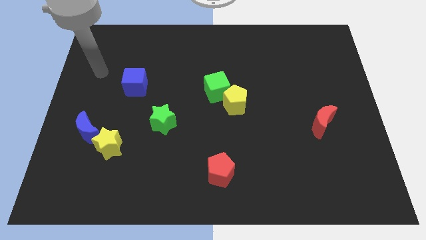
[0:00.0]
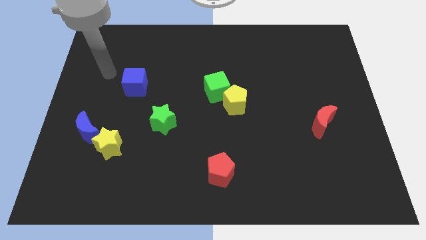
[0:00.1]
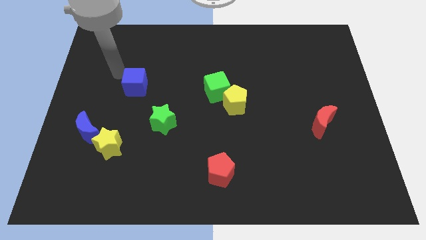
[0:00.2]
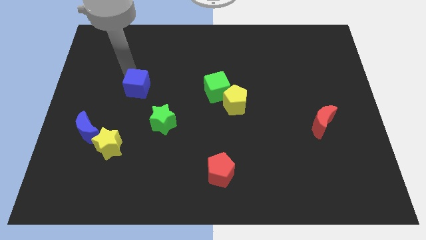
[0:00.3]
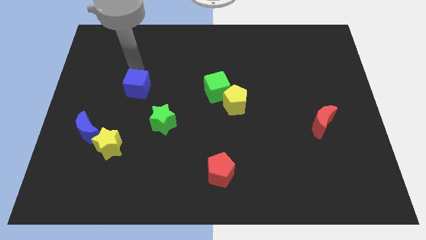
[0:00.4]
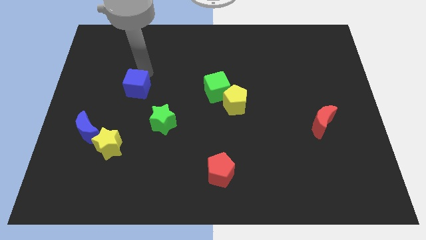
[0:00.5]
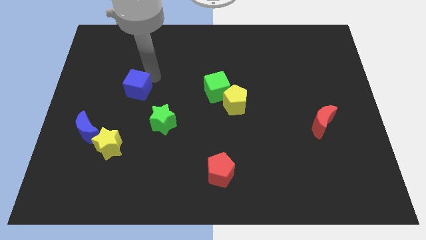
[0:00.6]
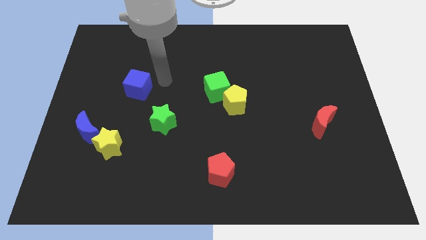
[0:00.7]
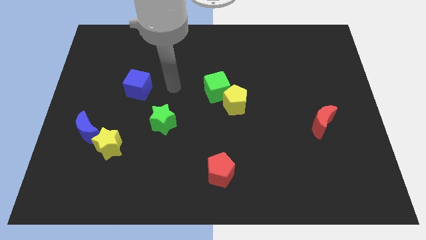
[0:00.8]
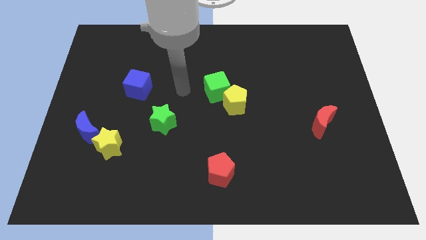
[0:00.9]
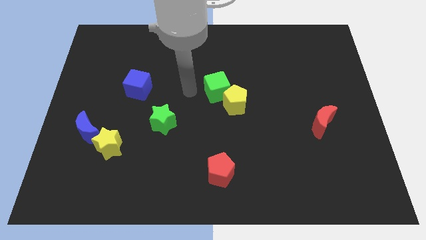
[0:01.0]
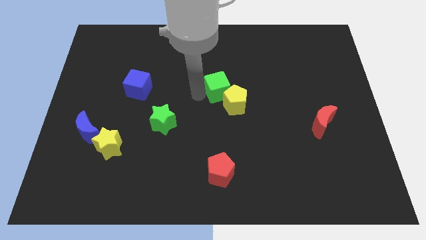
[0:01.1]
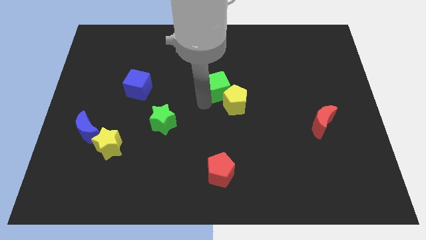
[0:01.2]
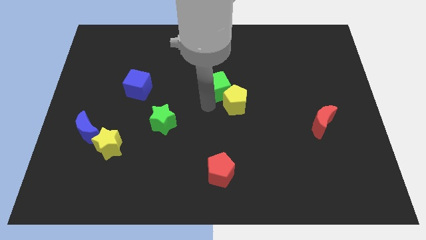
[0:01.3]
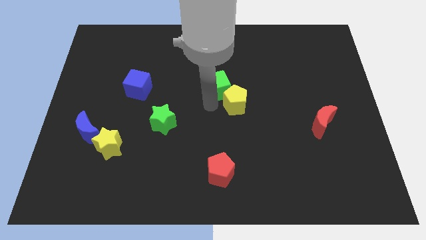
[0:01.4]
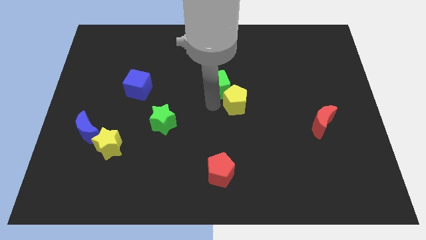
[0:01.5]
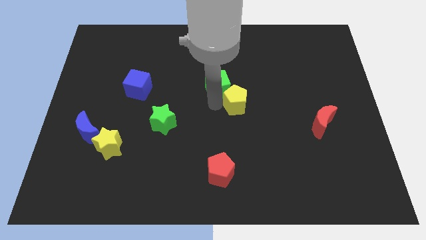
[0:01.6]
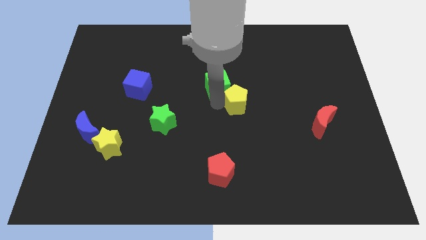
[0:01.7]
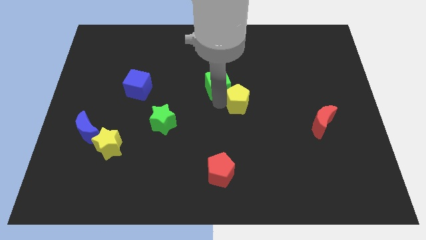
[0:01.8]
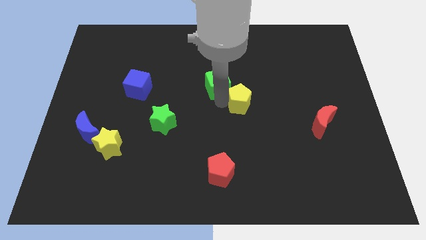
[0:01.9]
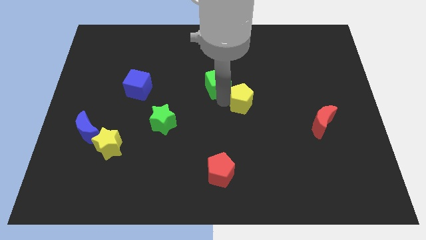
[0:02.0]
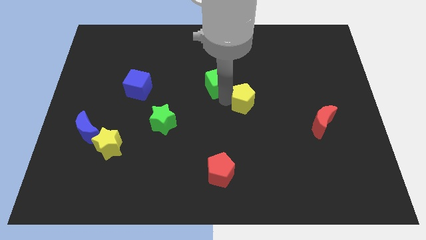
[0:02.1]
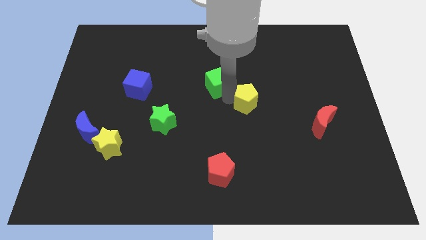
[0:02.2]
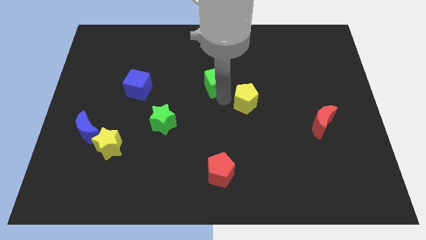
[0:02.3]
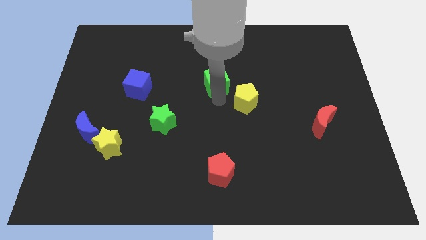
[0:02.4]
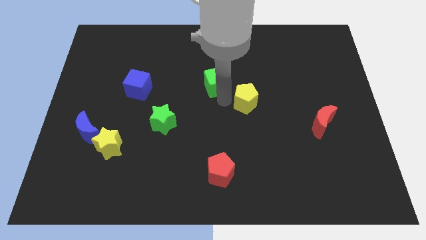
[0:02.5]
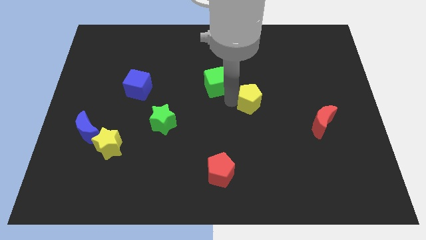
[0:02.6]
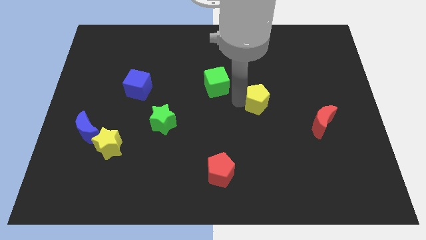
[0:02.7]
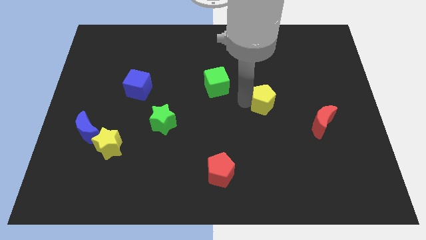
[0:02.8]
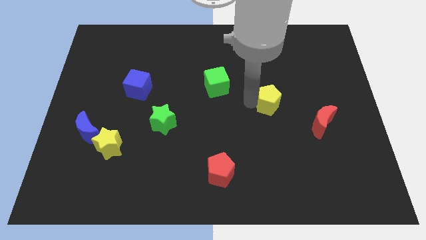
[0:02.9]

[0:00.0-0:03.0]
slightly push the yellow pentagon right

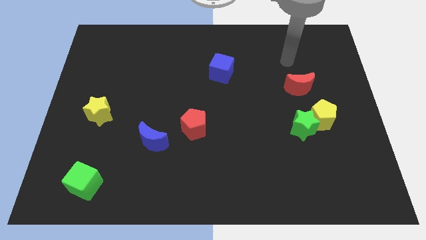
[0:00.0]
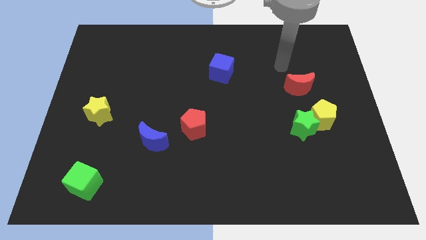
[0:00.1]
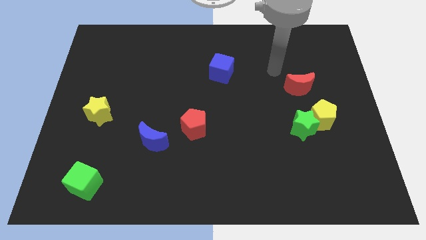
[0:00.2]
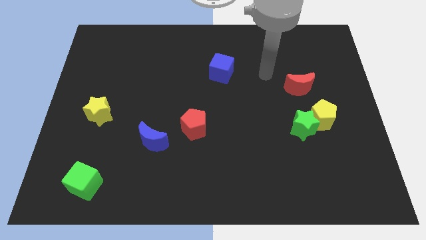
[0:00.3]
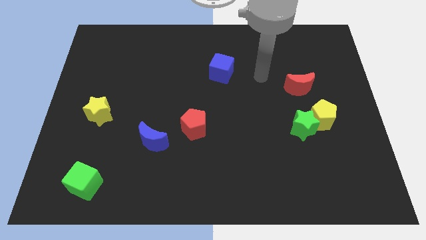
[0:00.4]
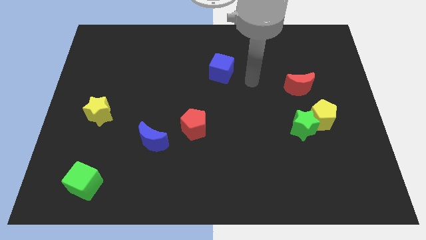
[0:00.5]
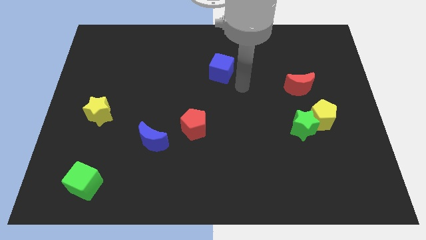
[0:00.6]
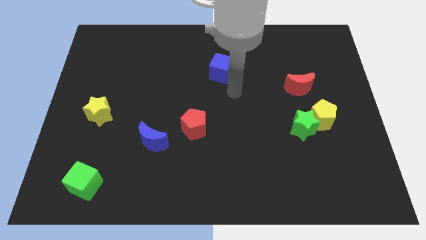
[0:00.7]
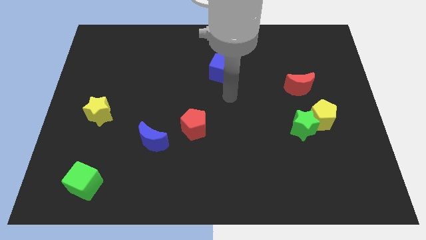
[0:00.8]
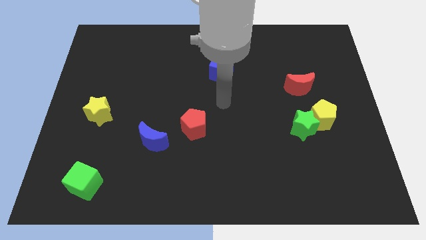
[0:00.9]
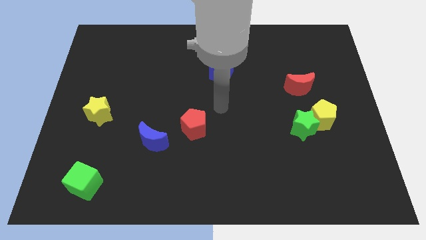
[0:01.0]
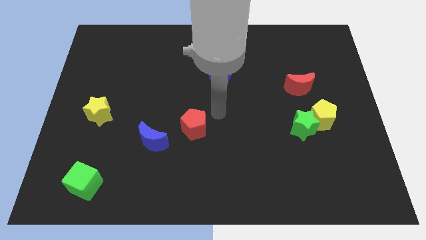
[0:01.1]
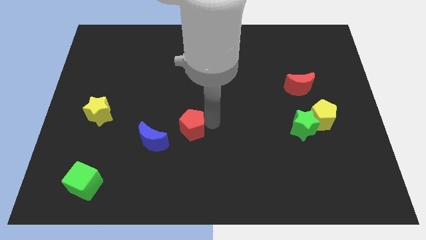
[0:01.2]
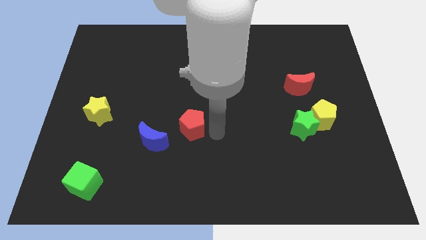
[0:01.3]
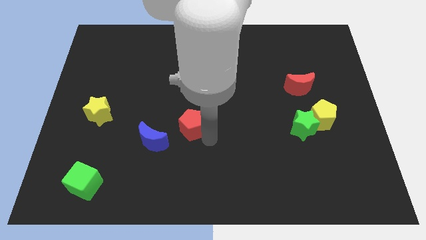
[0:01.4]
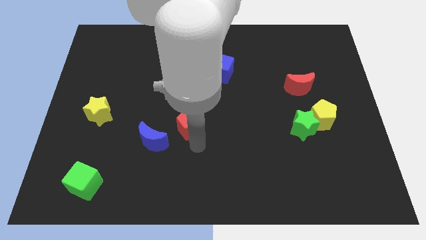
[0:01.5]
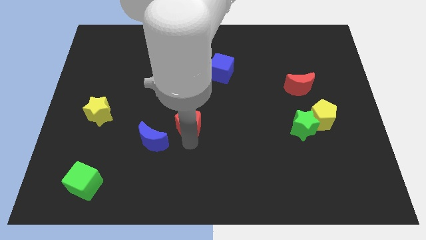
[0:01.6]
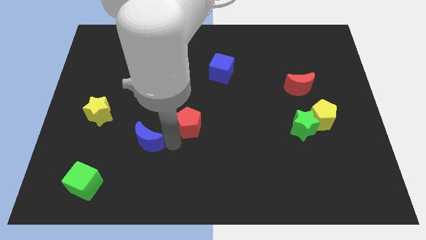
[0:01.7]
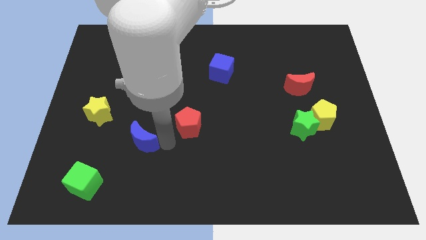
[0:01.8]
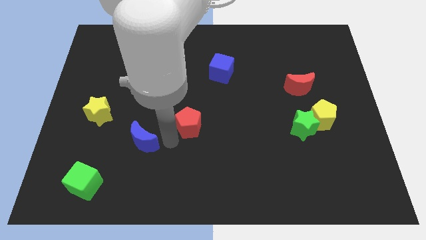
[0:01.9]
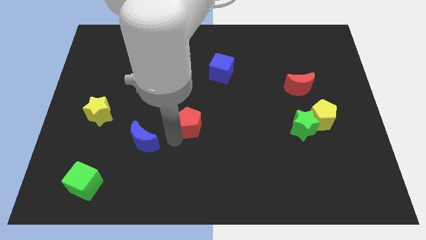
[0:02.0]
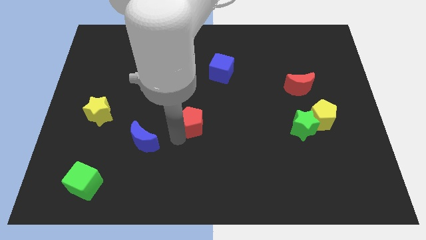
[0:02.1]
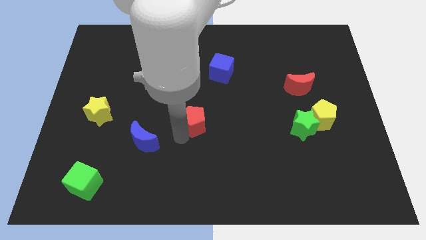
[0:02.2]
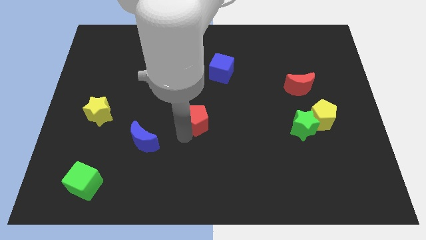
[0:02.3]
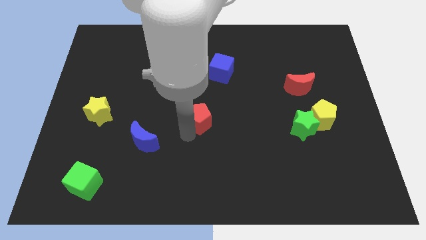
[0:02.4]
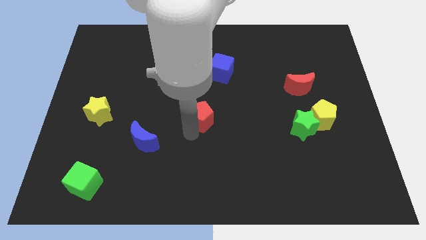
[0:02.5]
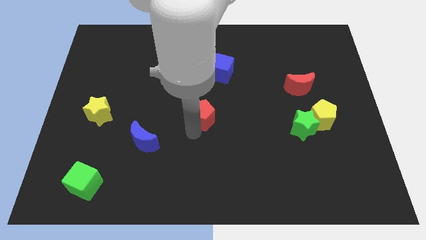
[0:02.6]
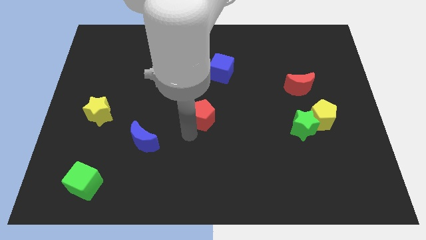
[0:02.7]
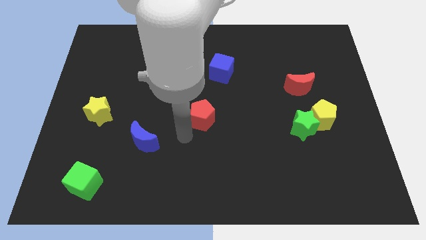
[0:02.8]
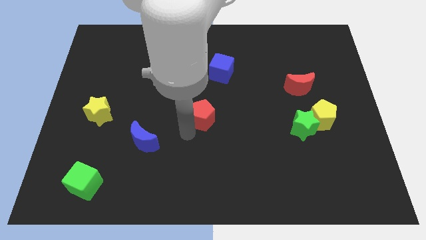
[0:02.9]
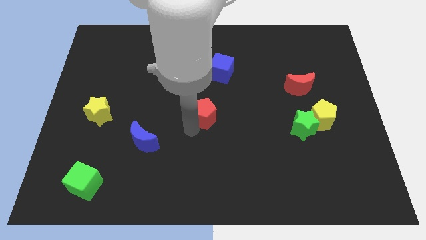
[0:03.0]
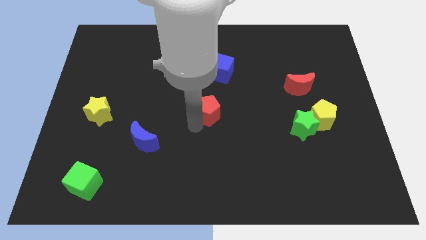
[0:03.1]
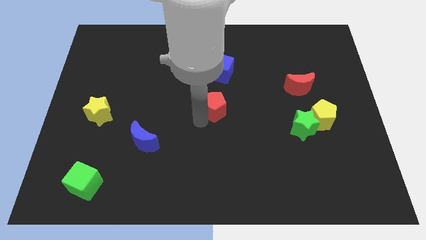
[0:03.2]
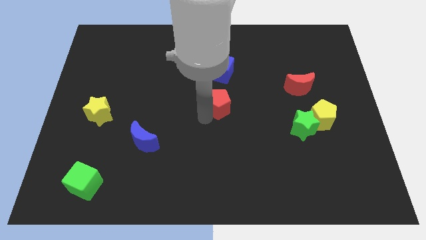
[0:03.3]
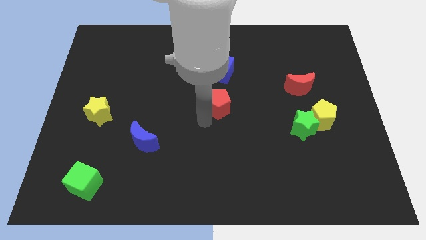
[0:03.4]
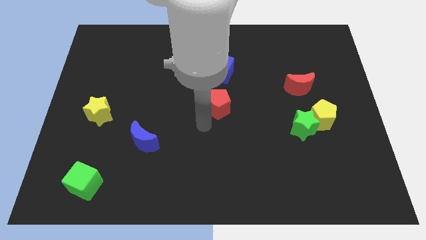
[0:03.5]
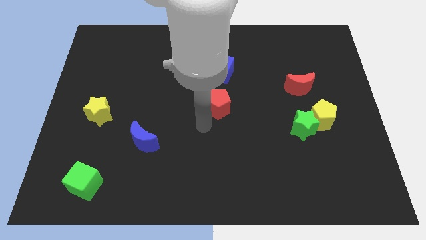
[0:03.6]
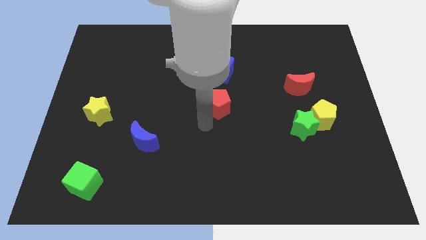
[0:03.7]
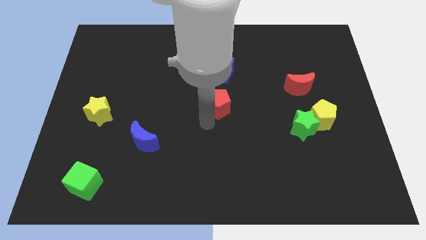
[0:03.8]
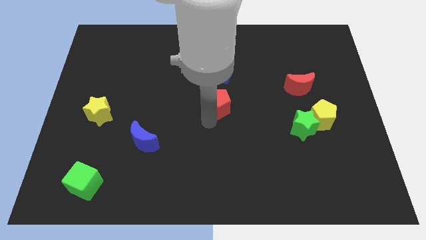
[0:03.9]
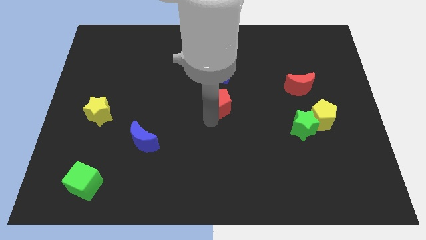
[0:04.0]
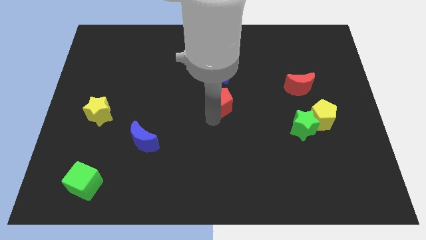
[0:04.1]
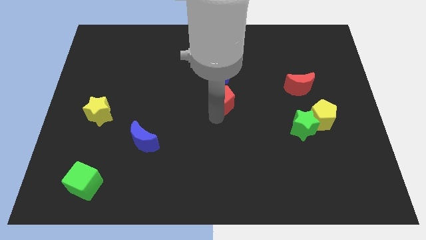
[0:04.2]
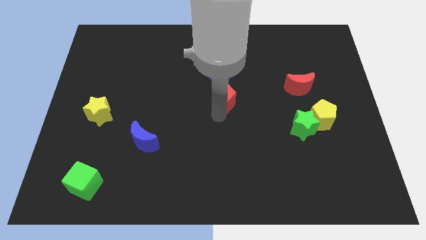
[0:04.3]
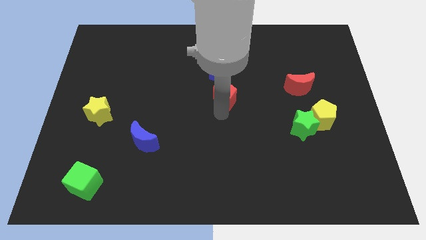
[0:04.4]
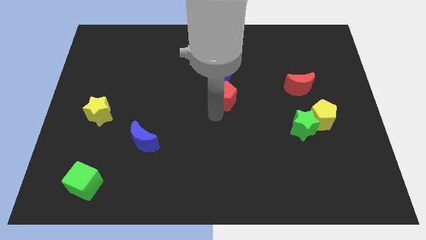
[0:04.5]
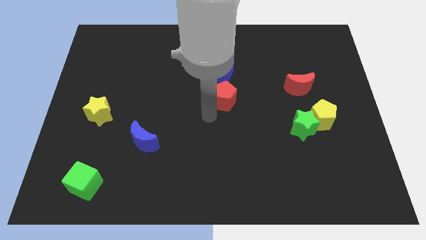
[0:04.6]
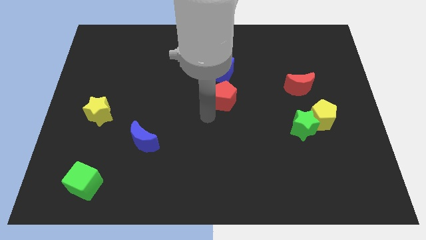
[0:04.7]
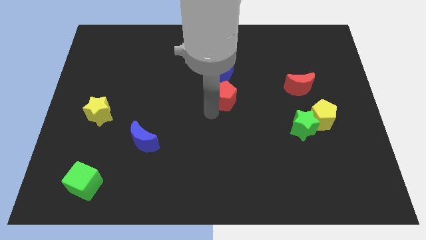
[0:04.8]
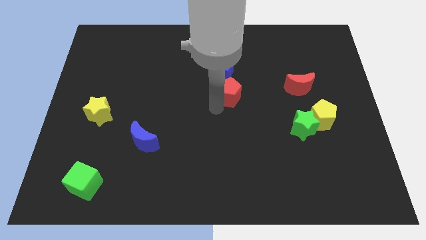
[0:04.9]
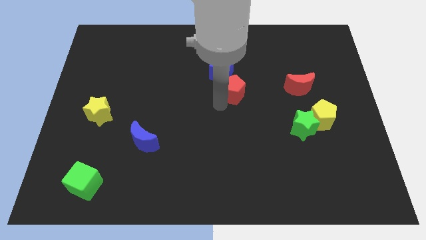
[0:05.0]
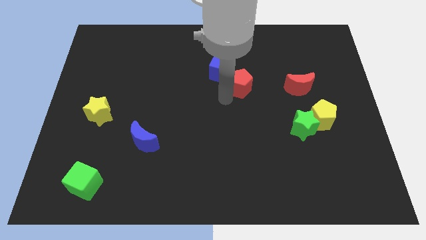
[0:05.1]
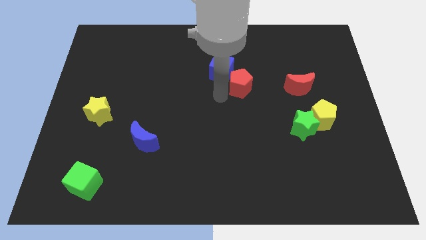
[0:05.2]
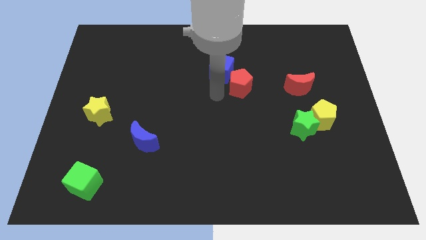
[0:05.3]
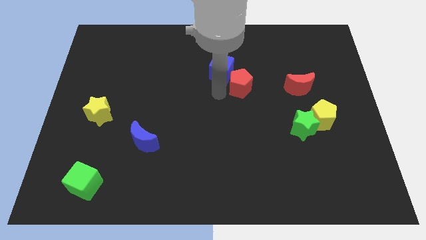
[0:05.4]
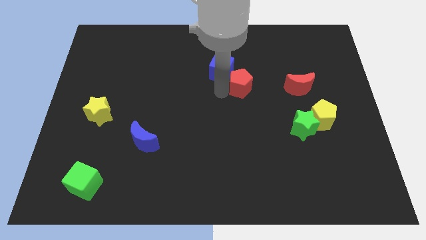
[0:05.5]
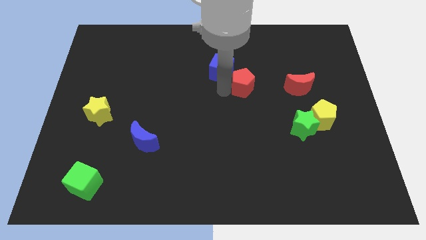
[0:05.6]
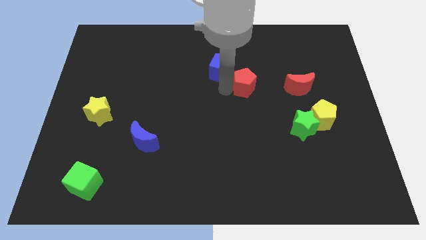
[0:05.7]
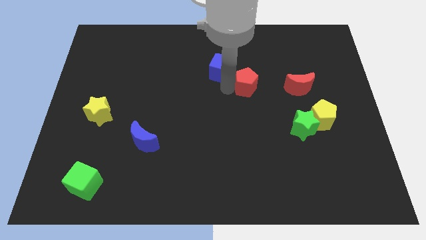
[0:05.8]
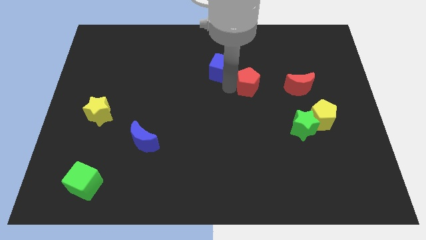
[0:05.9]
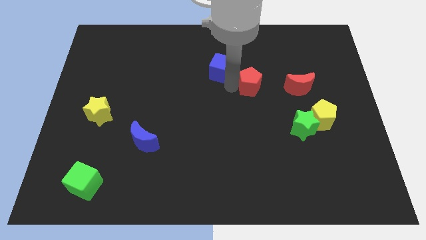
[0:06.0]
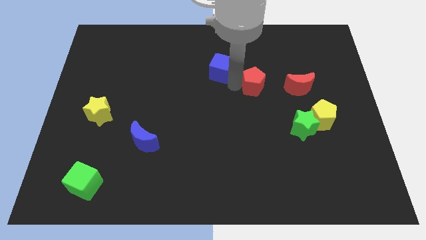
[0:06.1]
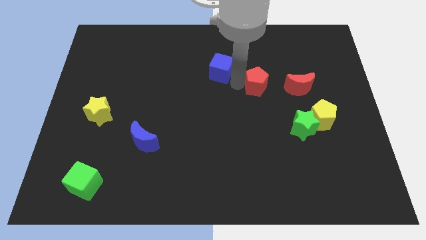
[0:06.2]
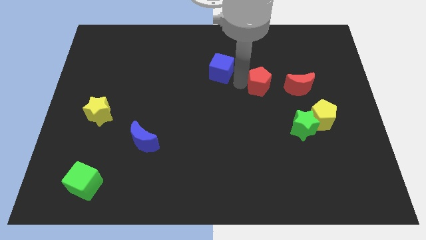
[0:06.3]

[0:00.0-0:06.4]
slide the red pentagon diagonally up and right
